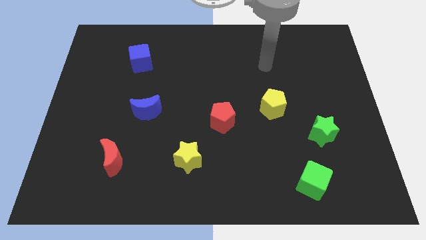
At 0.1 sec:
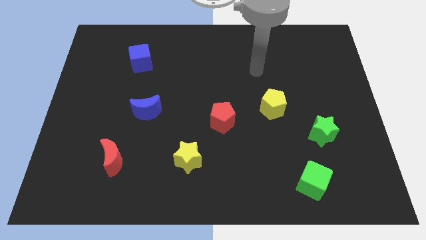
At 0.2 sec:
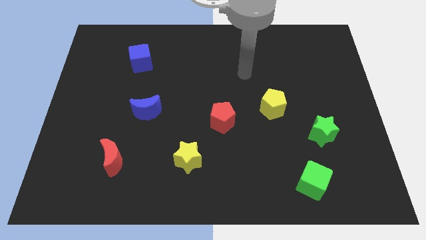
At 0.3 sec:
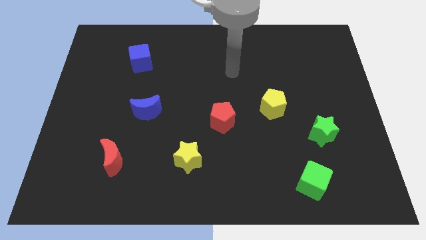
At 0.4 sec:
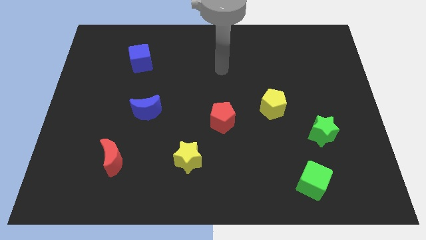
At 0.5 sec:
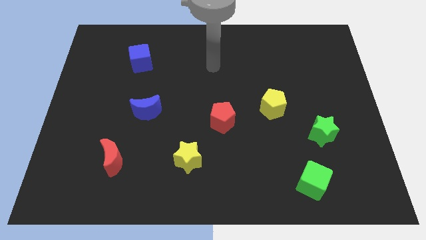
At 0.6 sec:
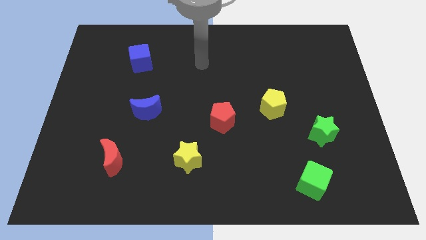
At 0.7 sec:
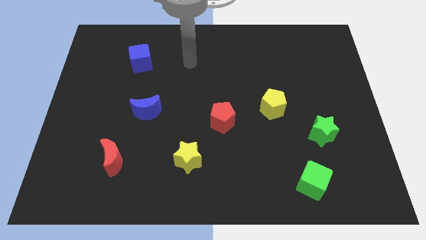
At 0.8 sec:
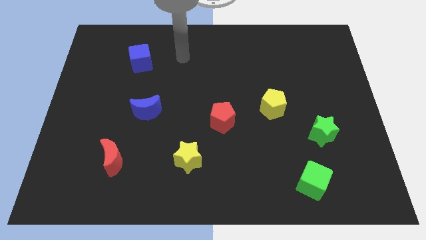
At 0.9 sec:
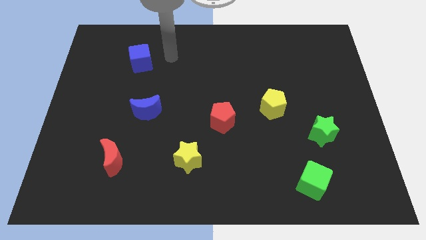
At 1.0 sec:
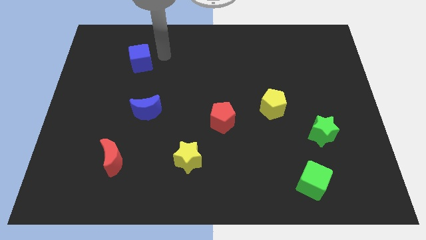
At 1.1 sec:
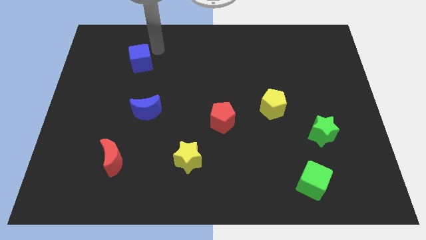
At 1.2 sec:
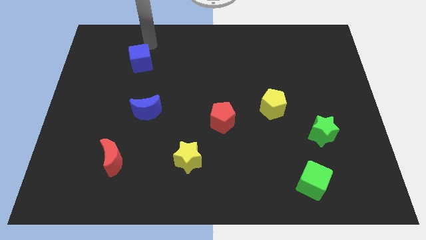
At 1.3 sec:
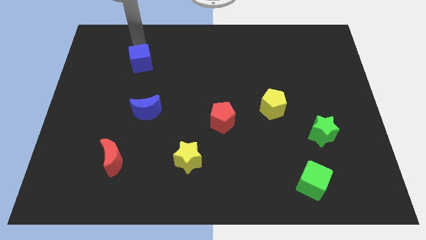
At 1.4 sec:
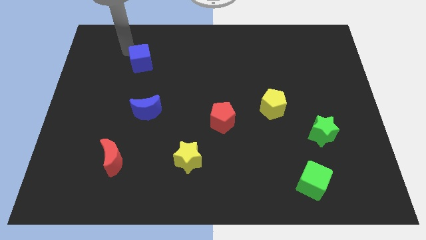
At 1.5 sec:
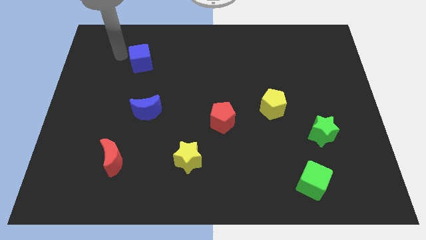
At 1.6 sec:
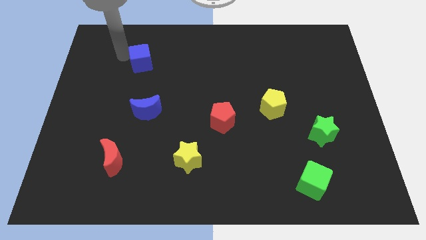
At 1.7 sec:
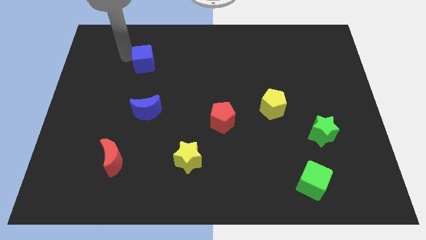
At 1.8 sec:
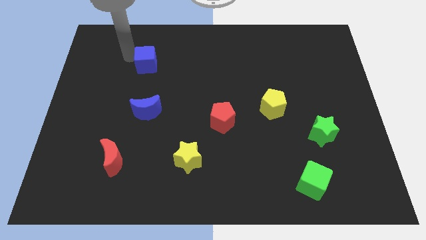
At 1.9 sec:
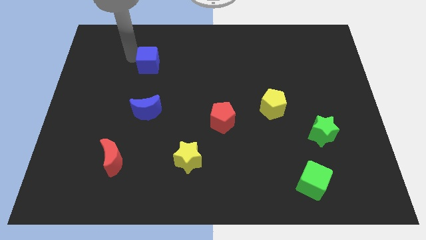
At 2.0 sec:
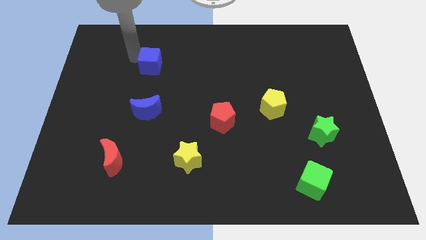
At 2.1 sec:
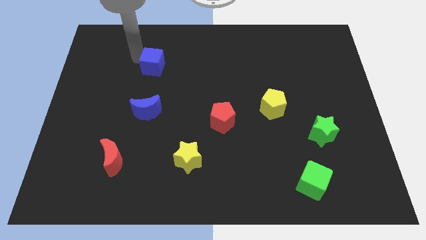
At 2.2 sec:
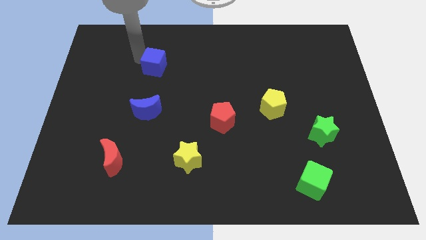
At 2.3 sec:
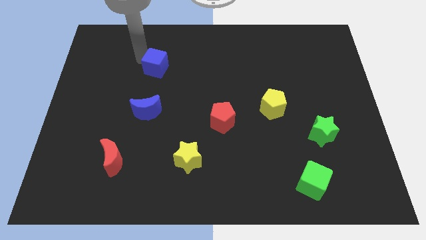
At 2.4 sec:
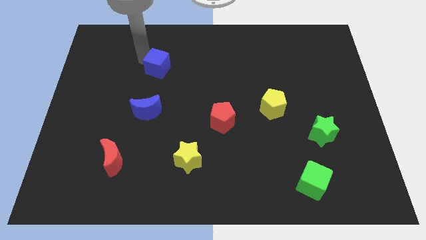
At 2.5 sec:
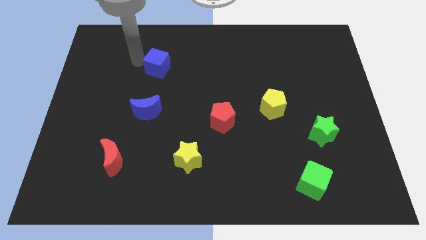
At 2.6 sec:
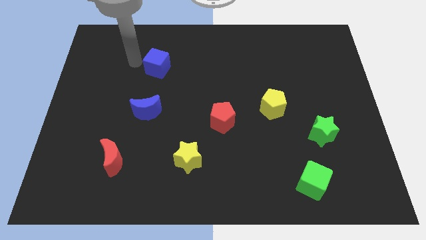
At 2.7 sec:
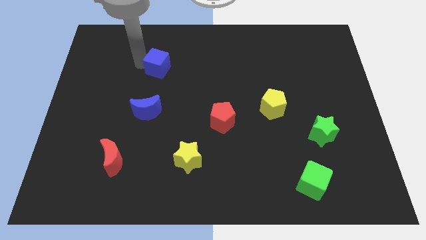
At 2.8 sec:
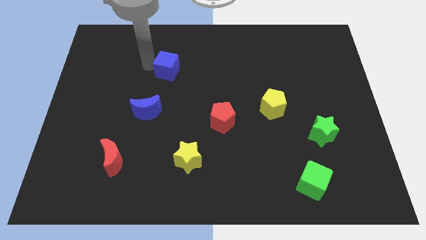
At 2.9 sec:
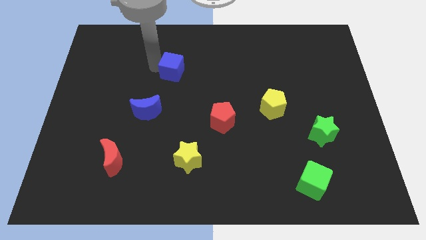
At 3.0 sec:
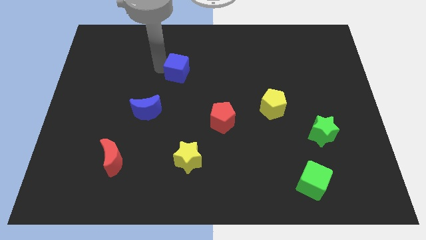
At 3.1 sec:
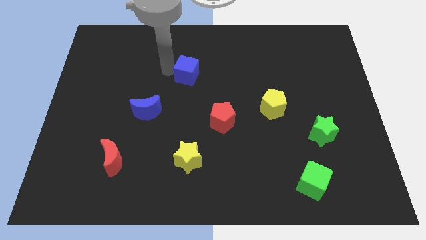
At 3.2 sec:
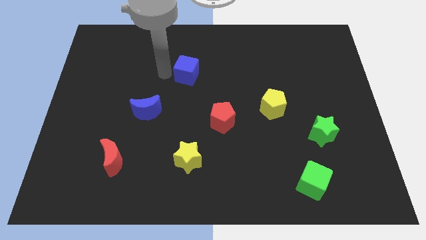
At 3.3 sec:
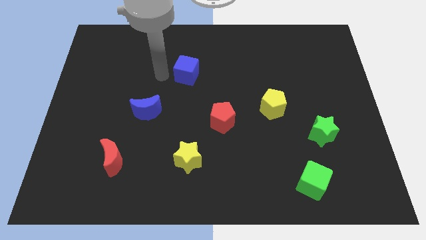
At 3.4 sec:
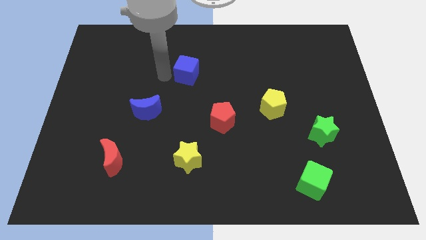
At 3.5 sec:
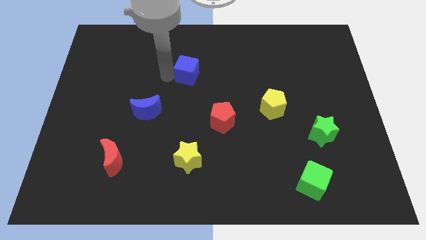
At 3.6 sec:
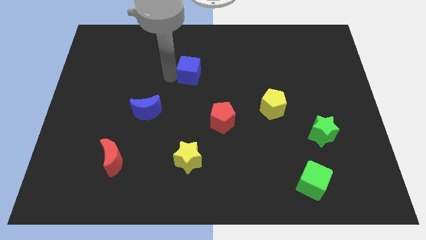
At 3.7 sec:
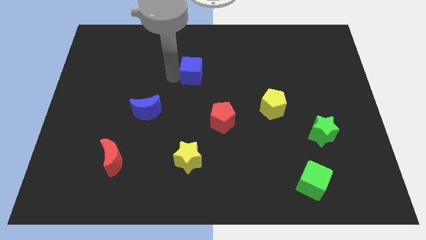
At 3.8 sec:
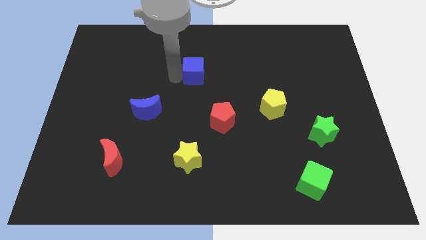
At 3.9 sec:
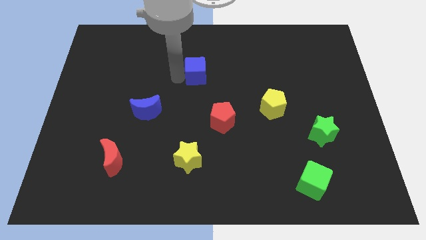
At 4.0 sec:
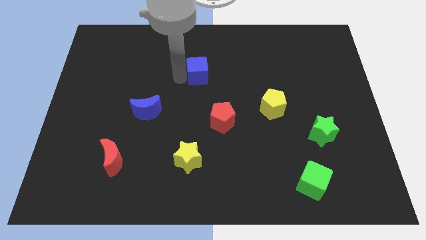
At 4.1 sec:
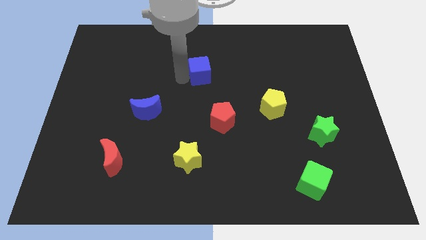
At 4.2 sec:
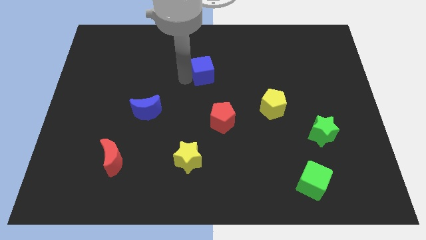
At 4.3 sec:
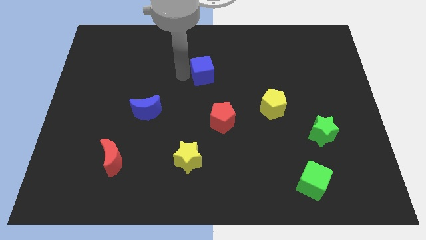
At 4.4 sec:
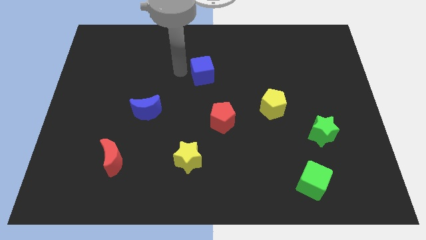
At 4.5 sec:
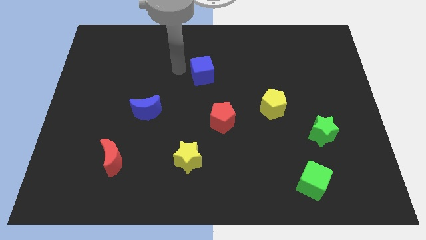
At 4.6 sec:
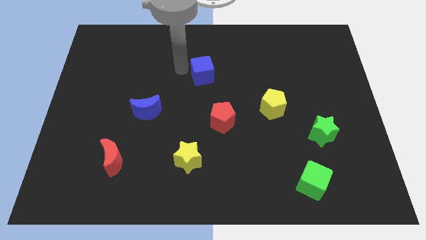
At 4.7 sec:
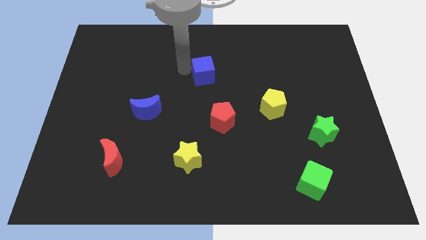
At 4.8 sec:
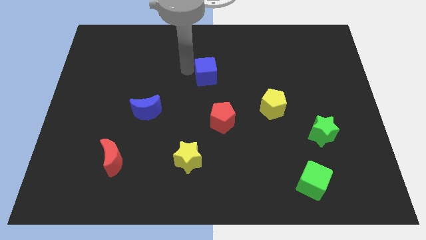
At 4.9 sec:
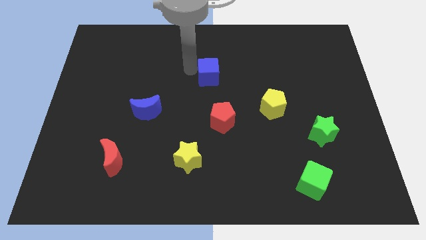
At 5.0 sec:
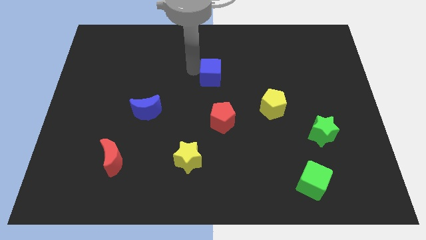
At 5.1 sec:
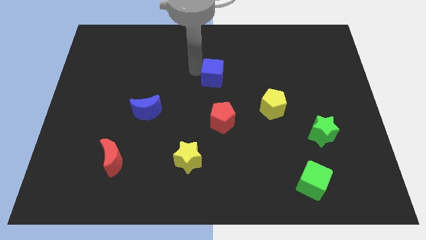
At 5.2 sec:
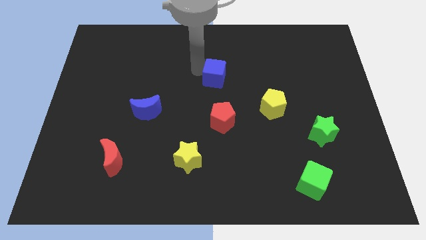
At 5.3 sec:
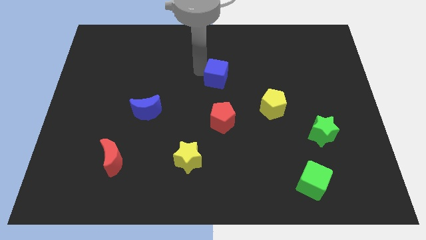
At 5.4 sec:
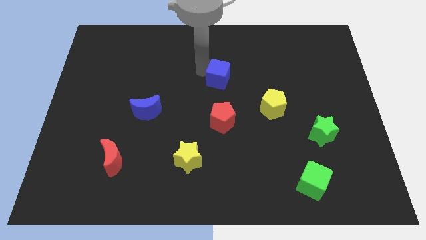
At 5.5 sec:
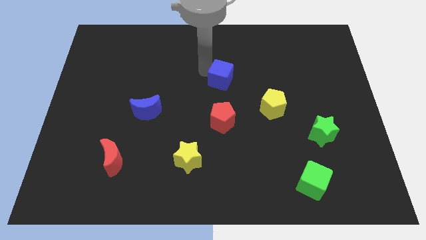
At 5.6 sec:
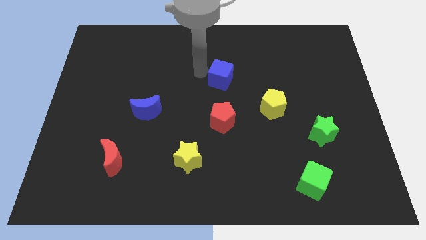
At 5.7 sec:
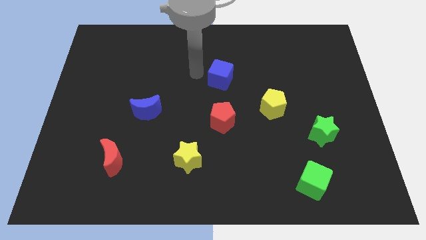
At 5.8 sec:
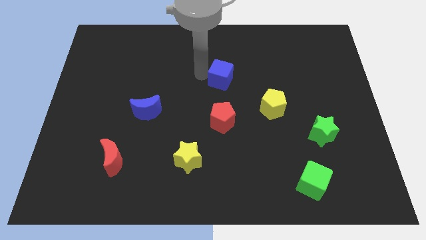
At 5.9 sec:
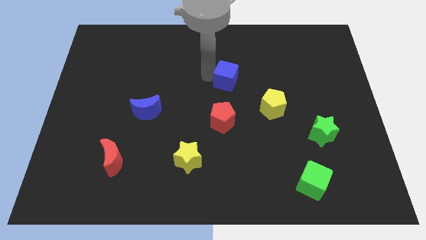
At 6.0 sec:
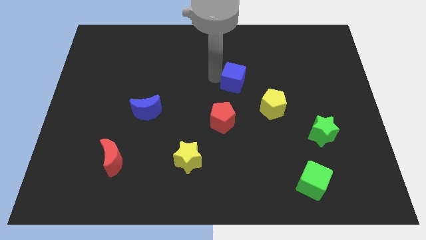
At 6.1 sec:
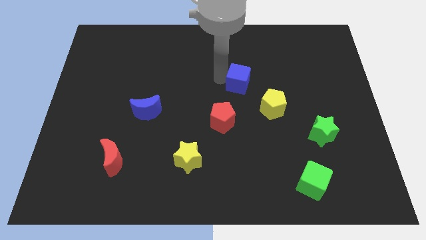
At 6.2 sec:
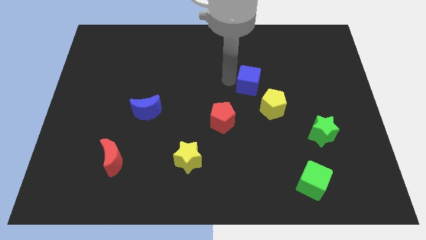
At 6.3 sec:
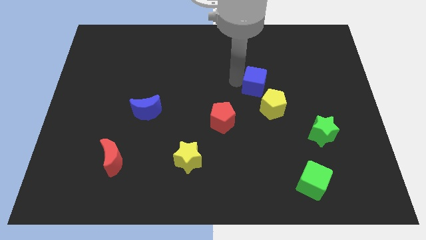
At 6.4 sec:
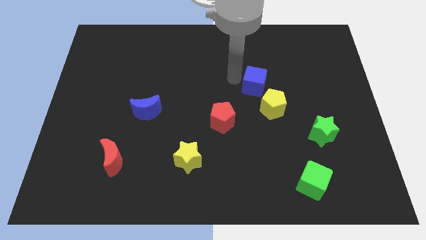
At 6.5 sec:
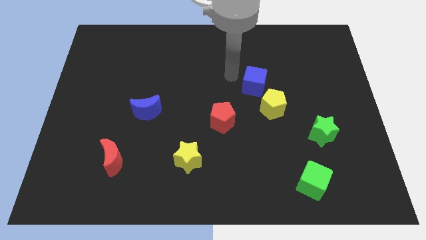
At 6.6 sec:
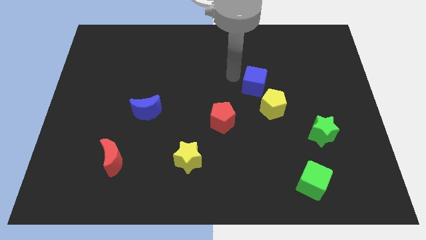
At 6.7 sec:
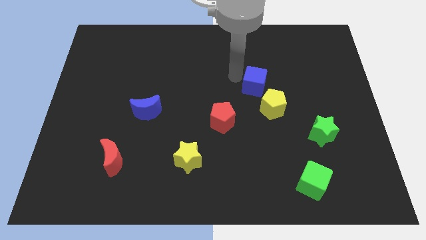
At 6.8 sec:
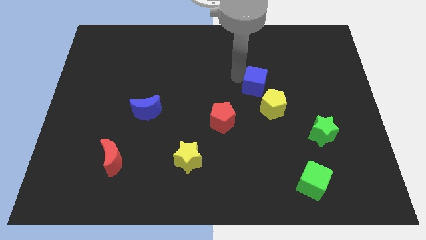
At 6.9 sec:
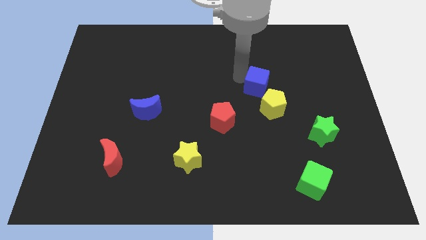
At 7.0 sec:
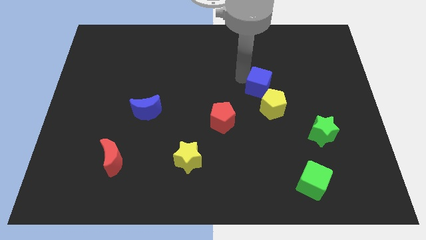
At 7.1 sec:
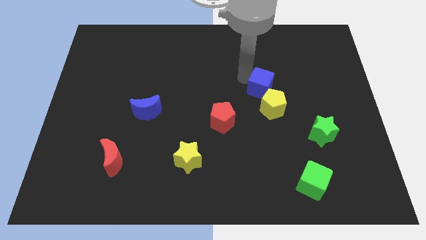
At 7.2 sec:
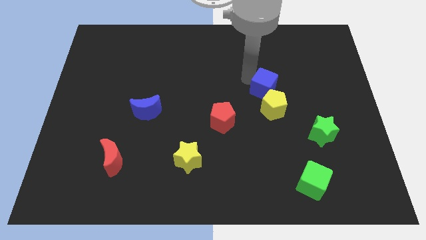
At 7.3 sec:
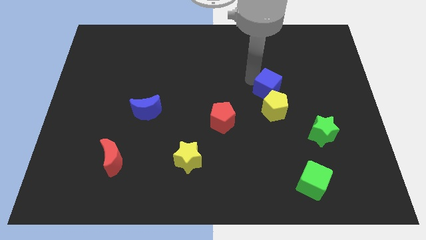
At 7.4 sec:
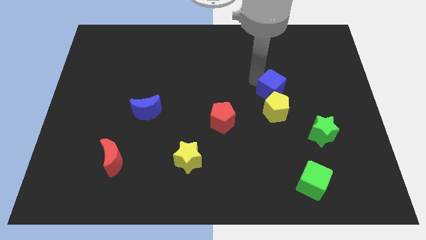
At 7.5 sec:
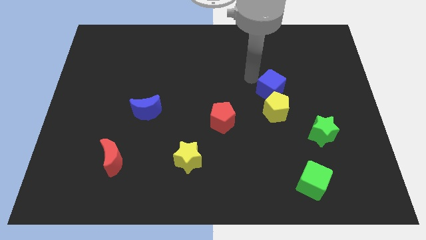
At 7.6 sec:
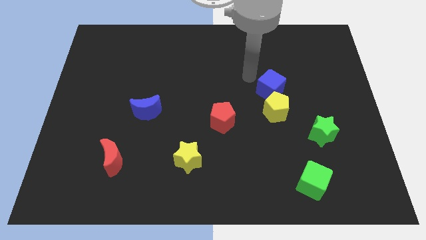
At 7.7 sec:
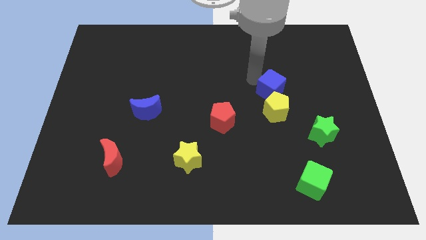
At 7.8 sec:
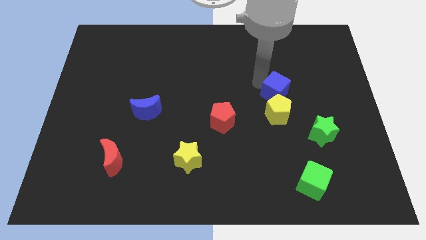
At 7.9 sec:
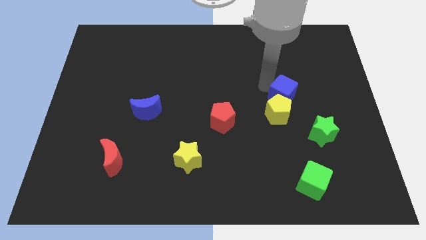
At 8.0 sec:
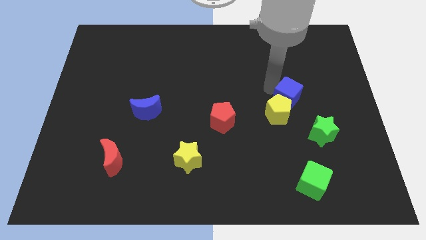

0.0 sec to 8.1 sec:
put the blue cube to the top left side of the green star
